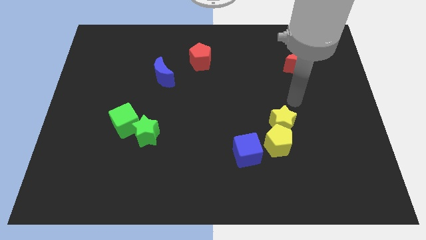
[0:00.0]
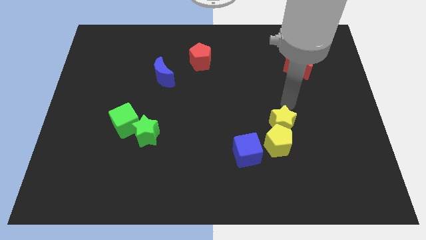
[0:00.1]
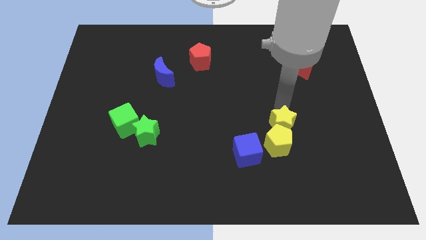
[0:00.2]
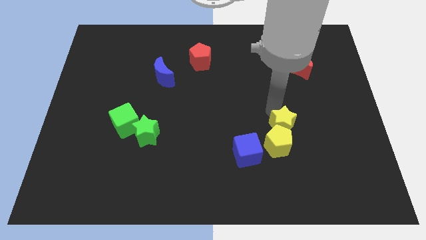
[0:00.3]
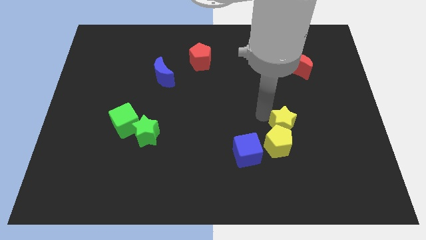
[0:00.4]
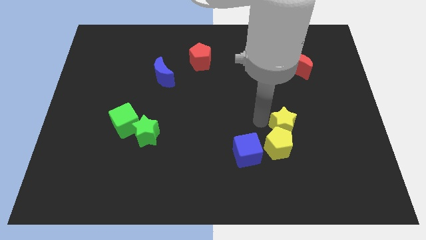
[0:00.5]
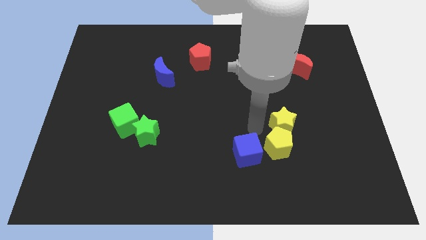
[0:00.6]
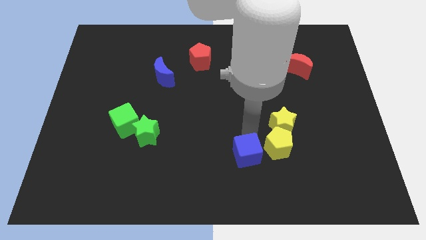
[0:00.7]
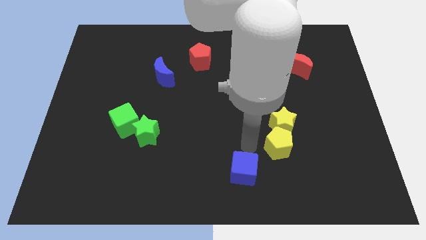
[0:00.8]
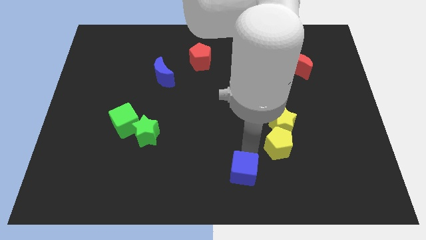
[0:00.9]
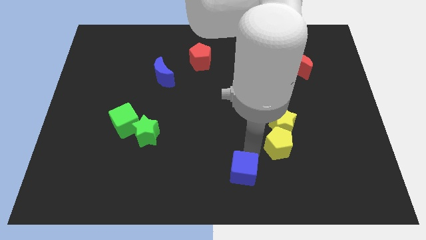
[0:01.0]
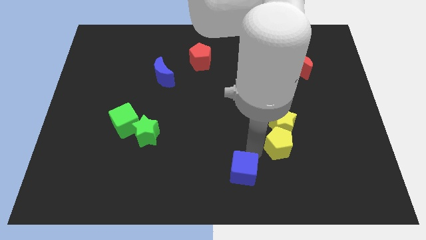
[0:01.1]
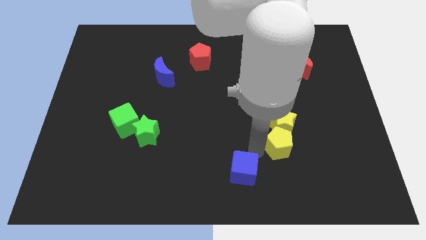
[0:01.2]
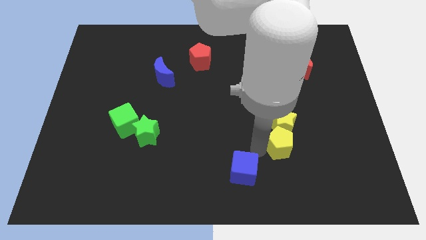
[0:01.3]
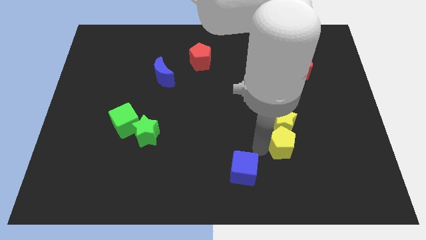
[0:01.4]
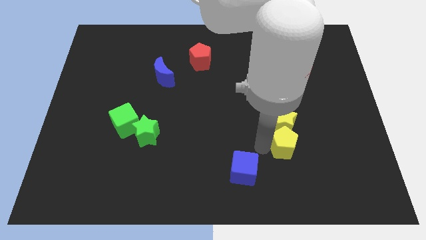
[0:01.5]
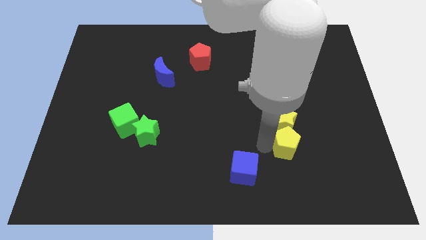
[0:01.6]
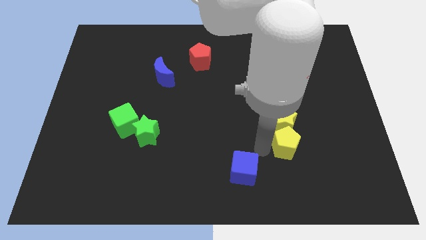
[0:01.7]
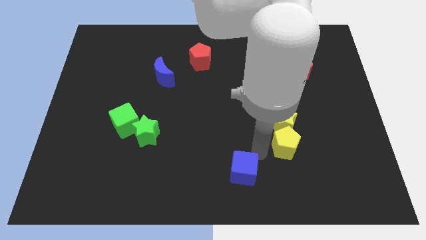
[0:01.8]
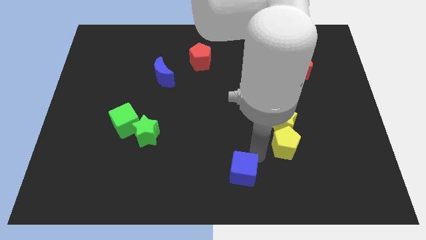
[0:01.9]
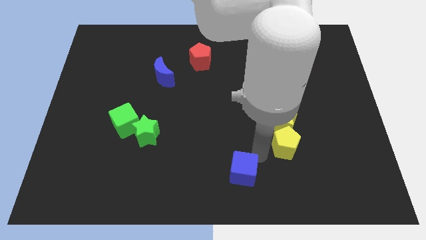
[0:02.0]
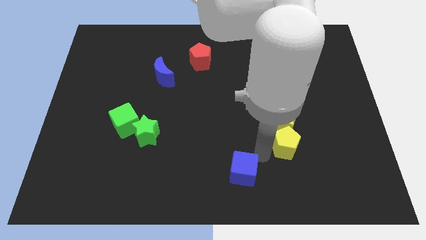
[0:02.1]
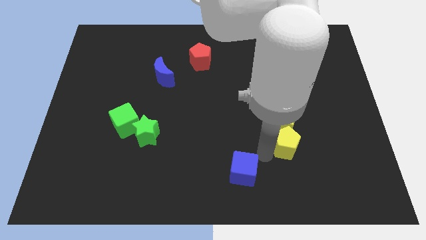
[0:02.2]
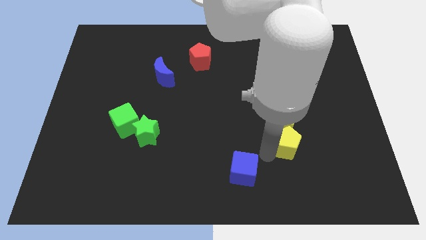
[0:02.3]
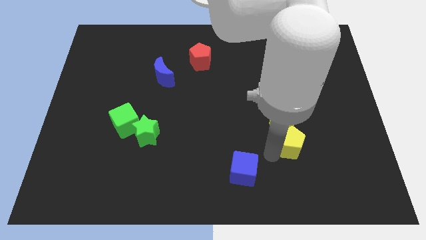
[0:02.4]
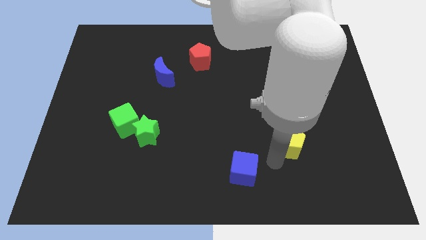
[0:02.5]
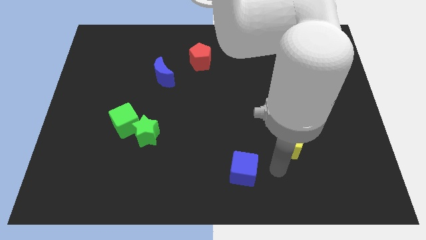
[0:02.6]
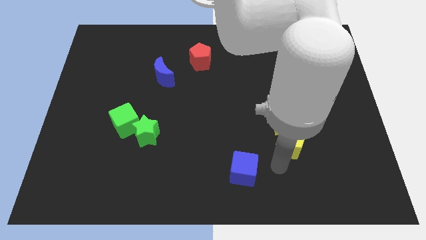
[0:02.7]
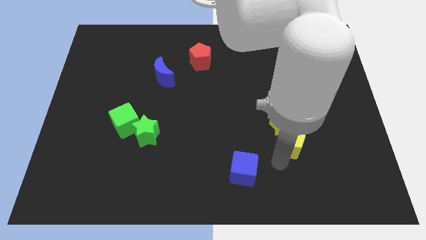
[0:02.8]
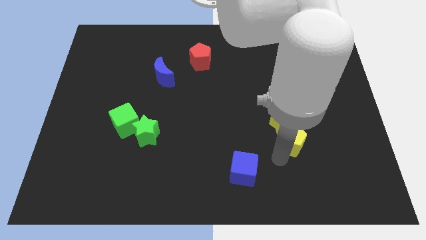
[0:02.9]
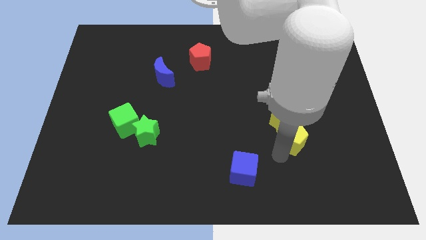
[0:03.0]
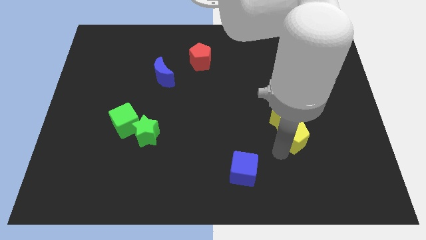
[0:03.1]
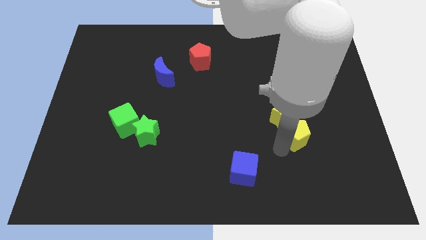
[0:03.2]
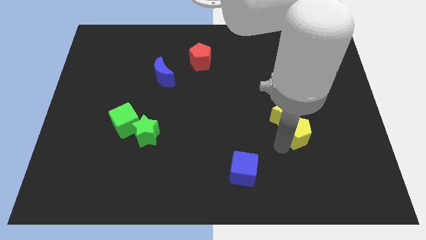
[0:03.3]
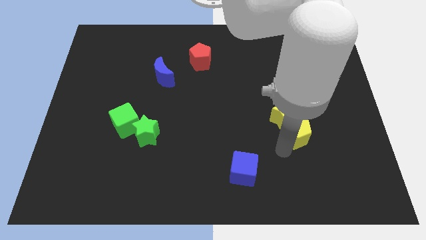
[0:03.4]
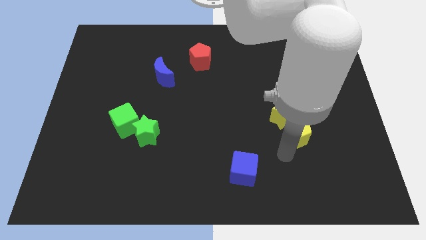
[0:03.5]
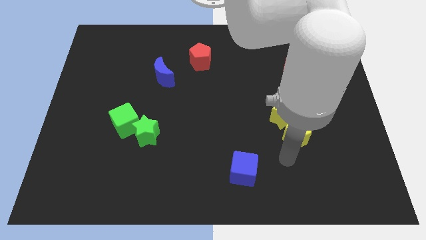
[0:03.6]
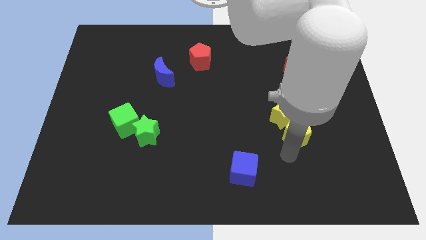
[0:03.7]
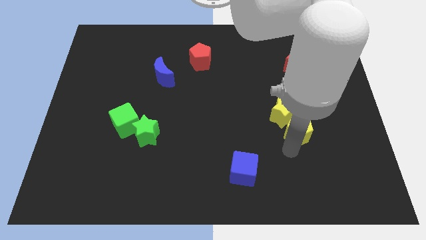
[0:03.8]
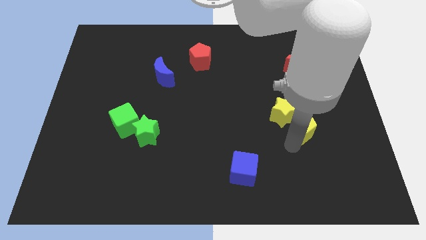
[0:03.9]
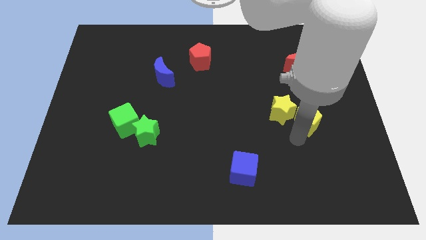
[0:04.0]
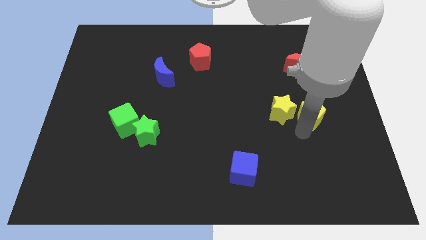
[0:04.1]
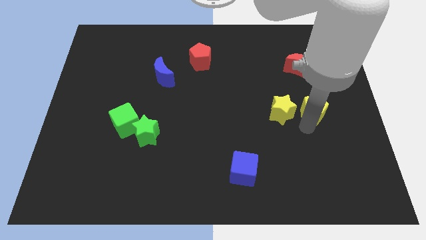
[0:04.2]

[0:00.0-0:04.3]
put the yellow pentagon diagonally up and to the right of the yellow star

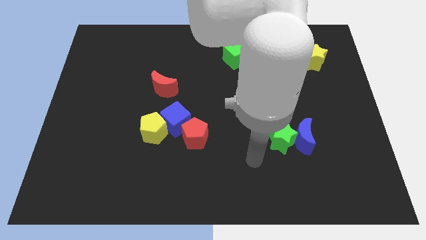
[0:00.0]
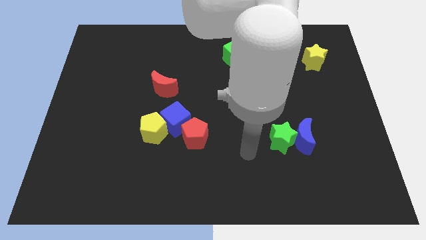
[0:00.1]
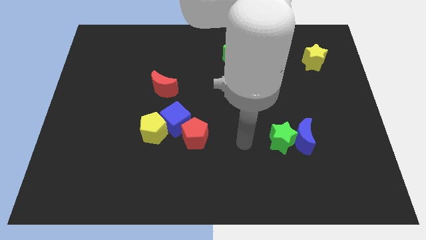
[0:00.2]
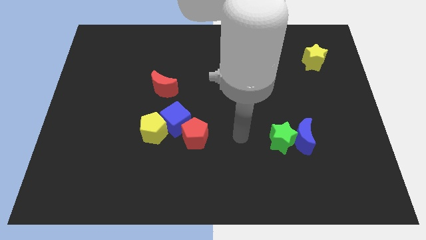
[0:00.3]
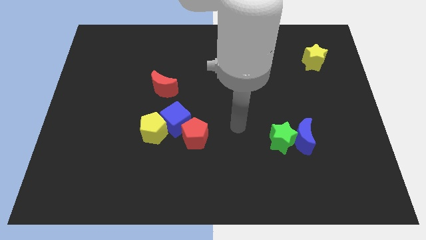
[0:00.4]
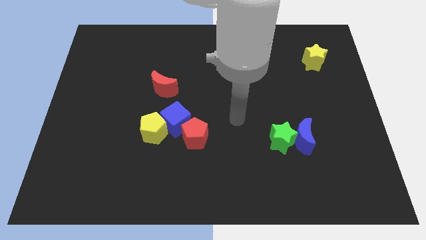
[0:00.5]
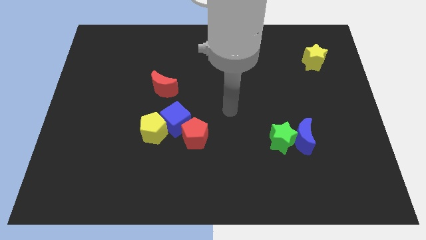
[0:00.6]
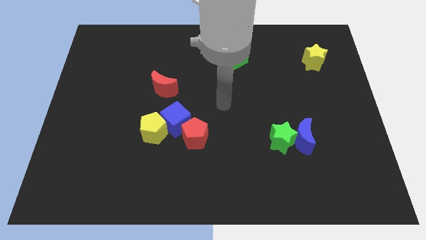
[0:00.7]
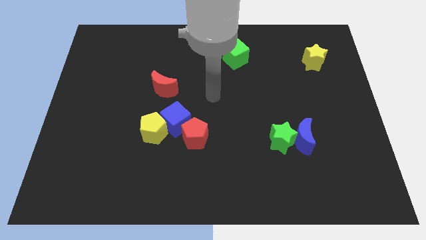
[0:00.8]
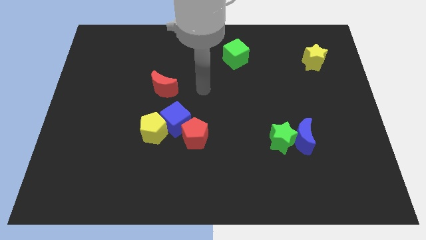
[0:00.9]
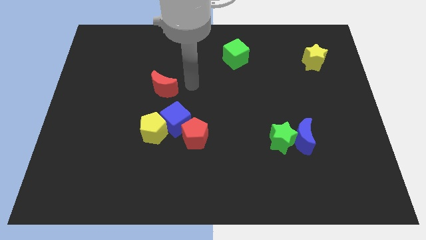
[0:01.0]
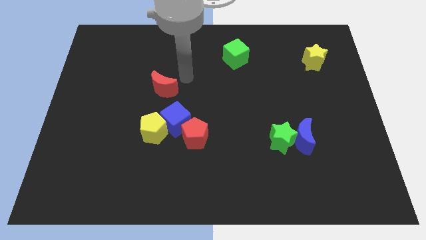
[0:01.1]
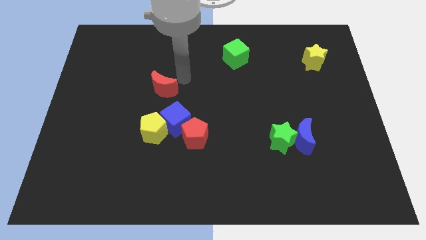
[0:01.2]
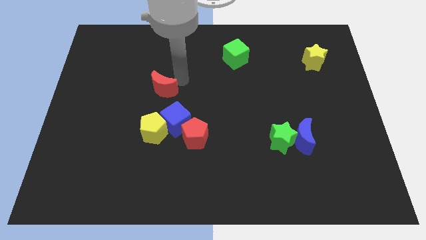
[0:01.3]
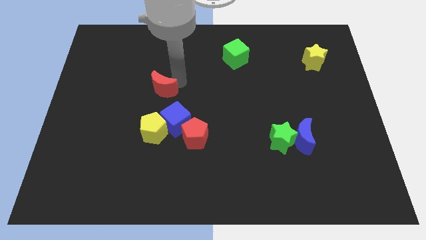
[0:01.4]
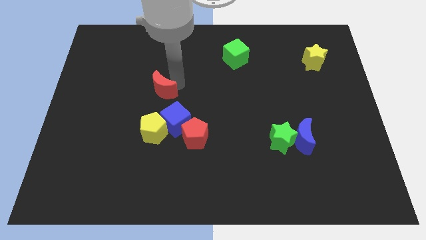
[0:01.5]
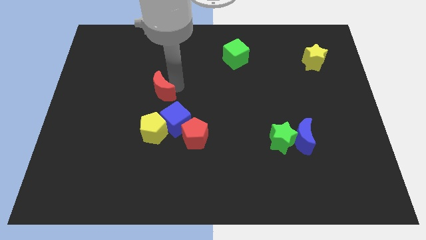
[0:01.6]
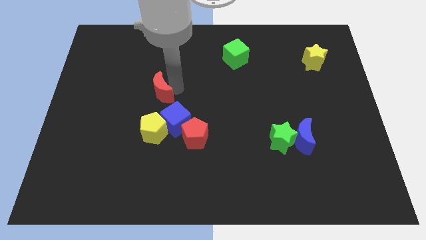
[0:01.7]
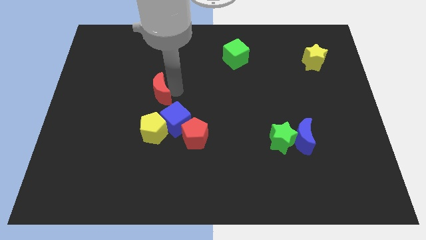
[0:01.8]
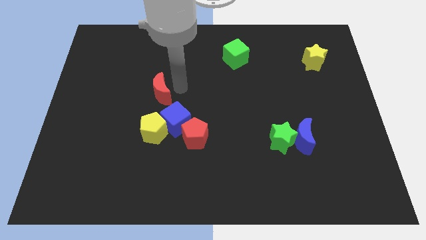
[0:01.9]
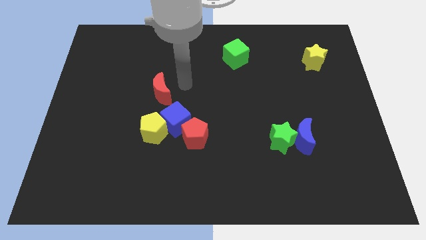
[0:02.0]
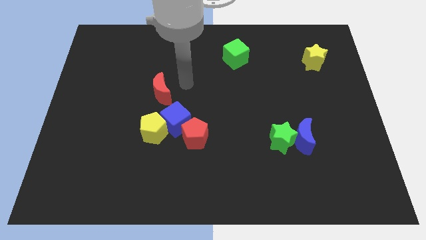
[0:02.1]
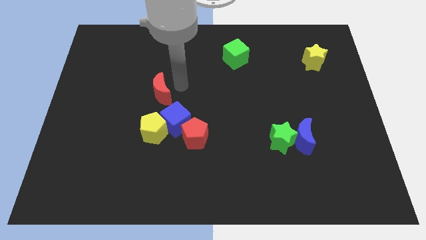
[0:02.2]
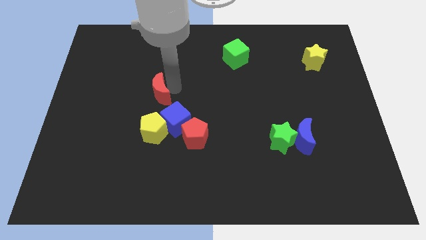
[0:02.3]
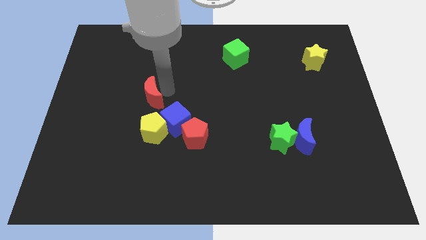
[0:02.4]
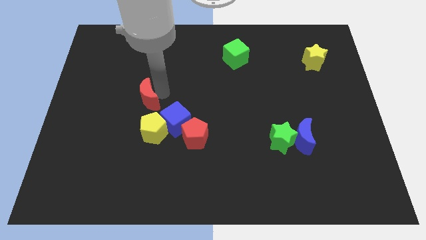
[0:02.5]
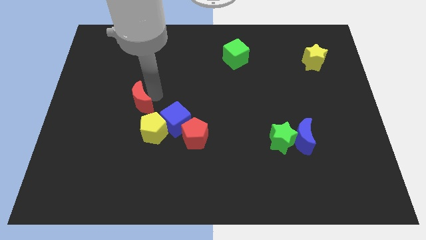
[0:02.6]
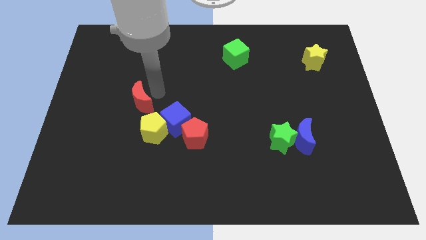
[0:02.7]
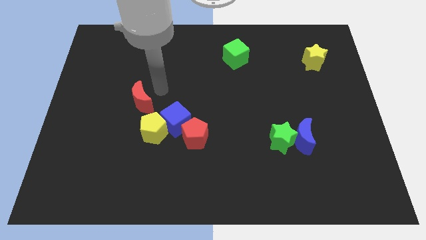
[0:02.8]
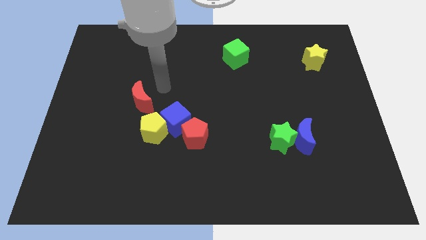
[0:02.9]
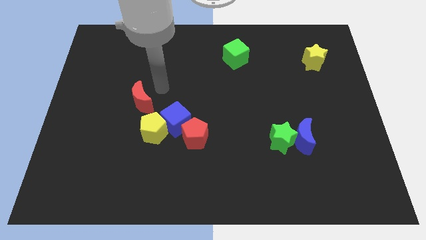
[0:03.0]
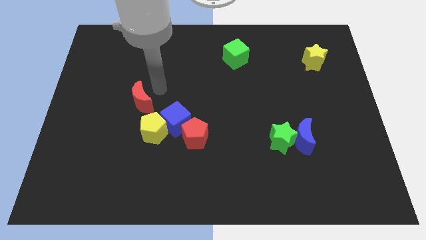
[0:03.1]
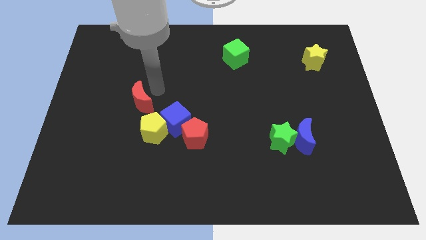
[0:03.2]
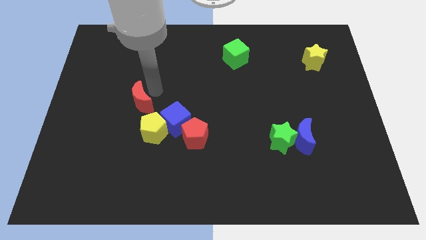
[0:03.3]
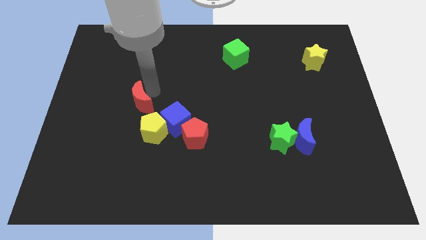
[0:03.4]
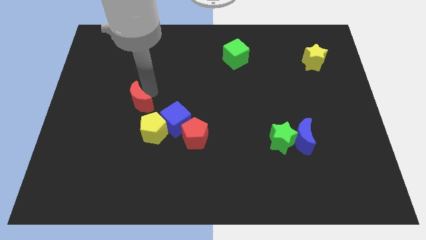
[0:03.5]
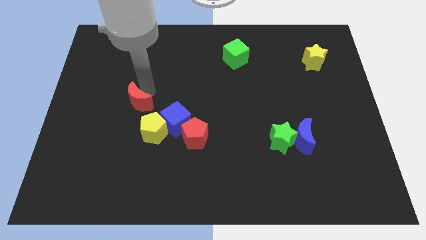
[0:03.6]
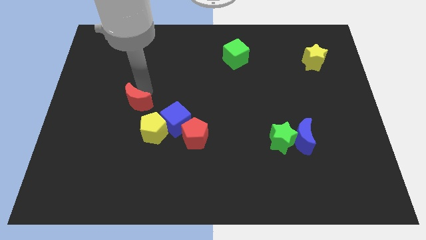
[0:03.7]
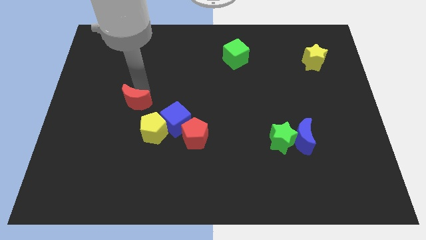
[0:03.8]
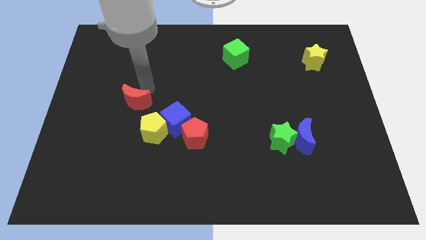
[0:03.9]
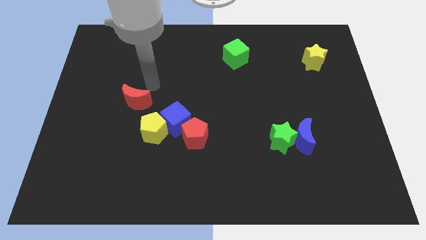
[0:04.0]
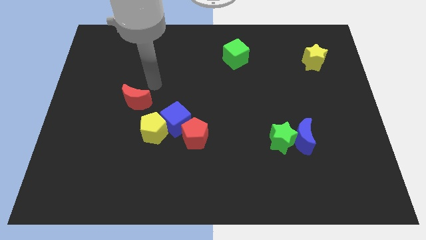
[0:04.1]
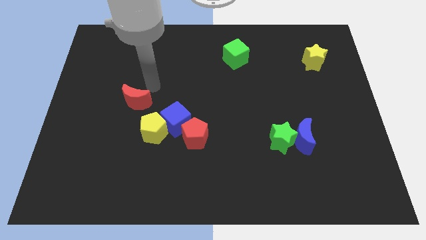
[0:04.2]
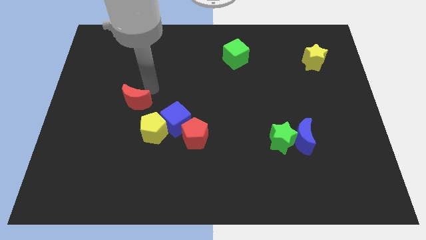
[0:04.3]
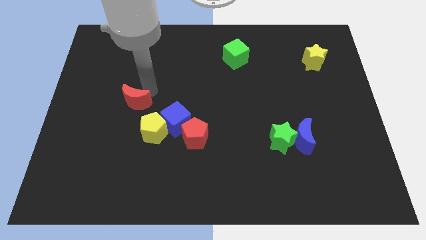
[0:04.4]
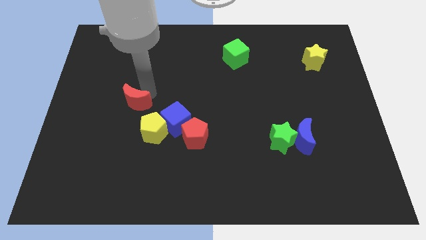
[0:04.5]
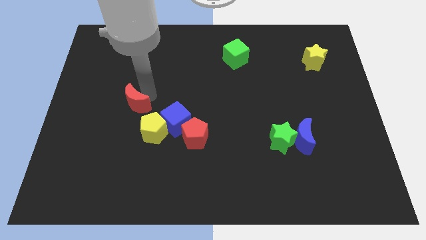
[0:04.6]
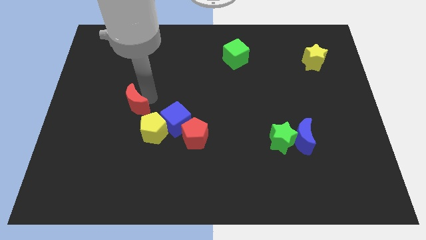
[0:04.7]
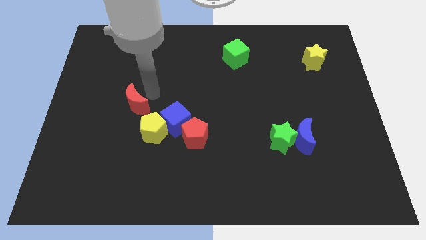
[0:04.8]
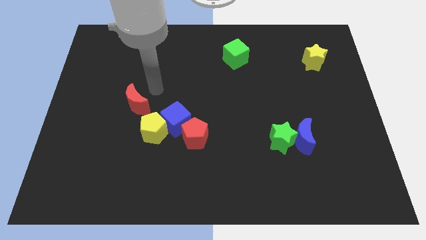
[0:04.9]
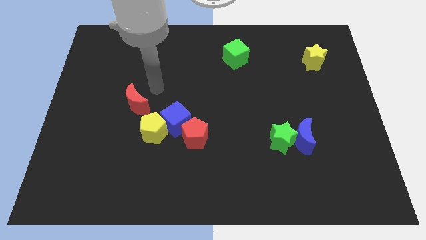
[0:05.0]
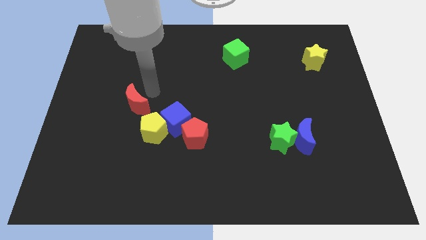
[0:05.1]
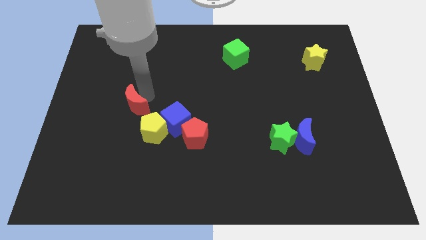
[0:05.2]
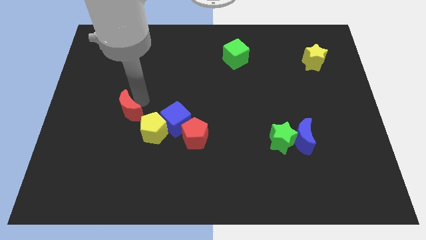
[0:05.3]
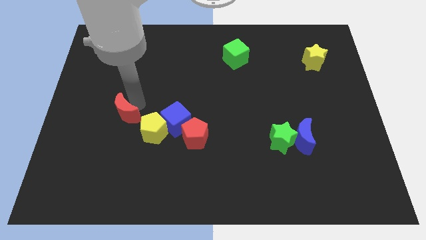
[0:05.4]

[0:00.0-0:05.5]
push the red moon to the left of the yellow pentagon
